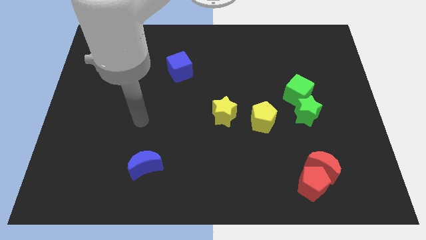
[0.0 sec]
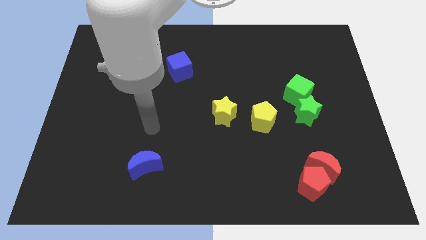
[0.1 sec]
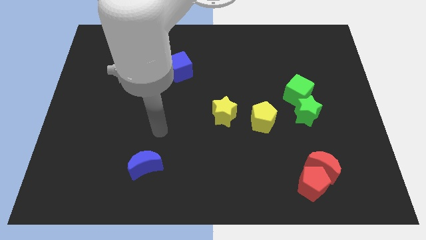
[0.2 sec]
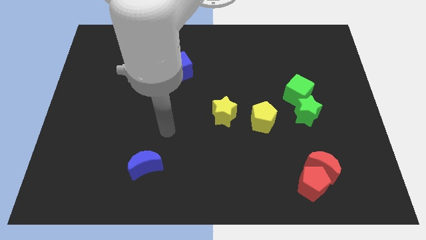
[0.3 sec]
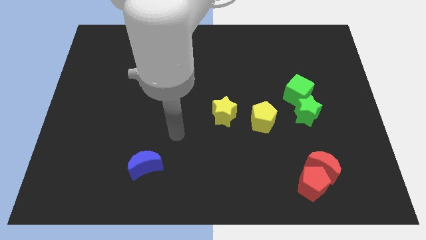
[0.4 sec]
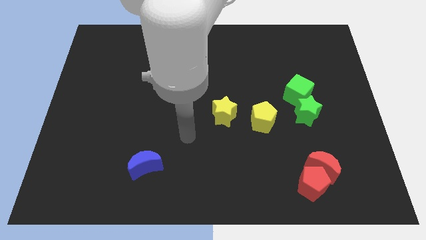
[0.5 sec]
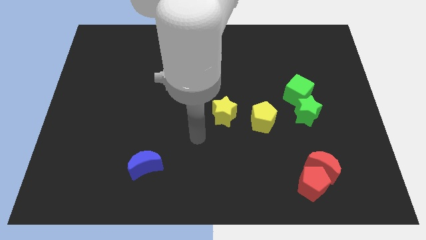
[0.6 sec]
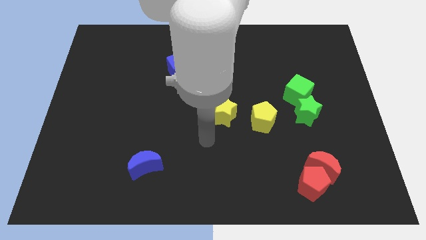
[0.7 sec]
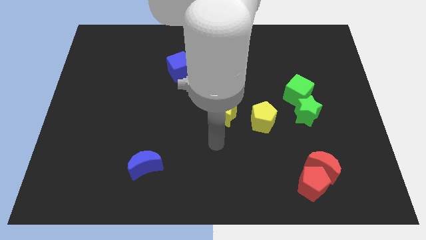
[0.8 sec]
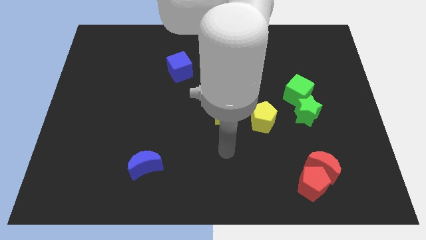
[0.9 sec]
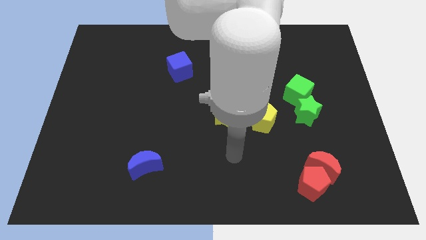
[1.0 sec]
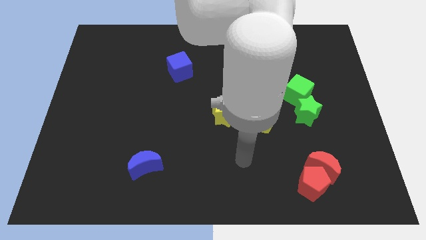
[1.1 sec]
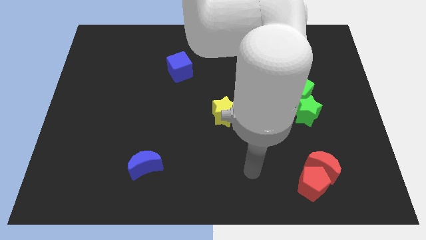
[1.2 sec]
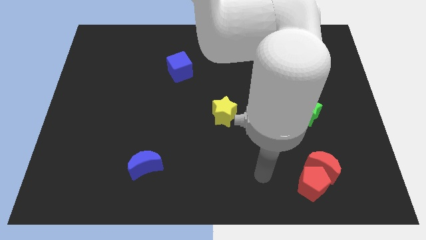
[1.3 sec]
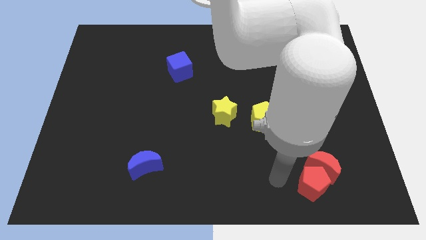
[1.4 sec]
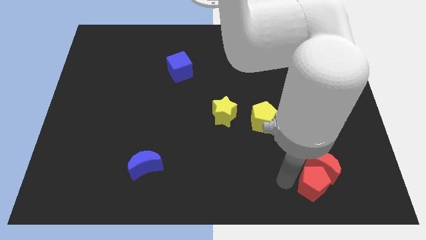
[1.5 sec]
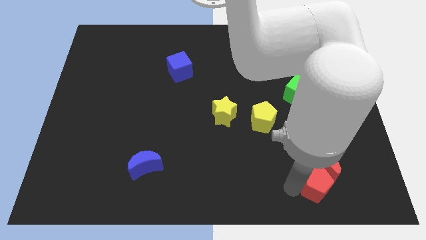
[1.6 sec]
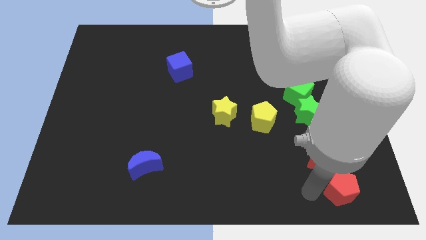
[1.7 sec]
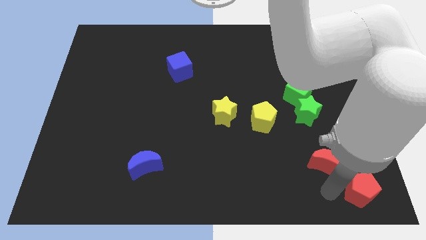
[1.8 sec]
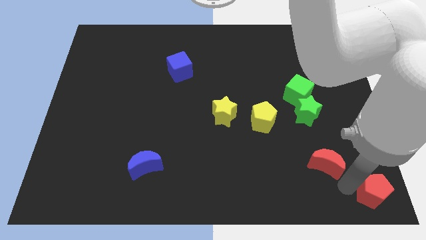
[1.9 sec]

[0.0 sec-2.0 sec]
pull the red moon apart from the red pentagon

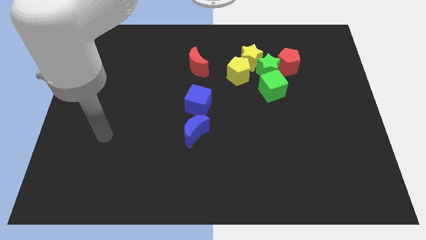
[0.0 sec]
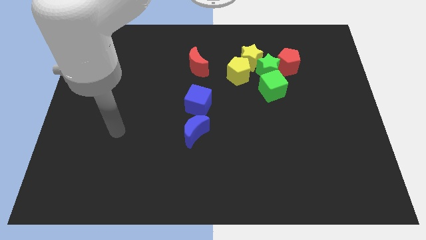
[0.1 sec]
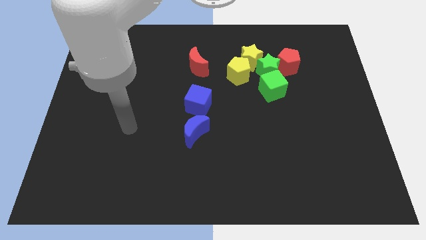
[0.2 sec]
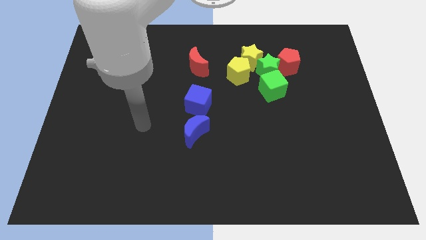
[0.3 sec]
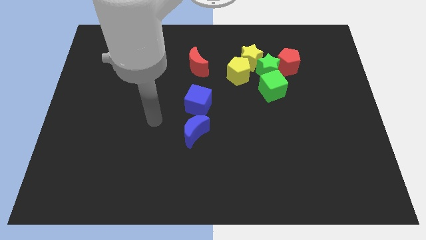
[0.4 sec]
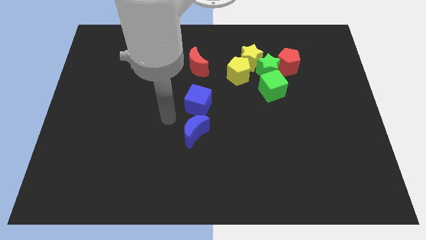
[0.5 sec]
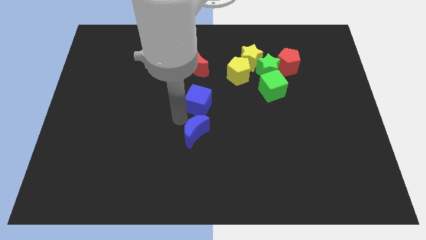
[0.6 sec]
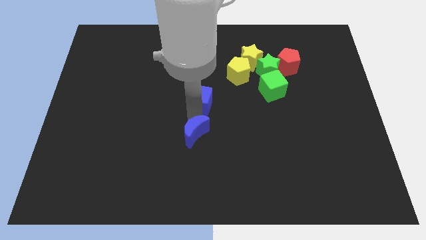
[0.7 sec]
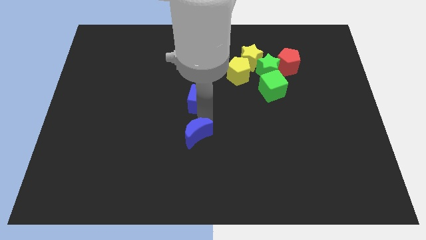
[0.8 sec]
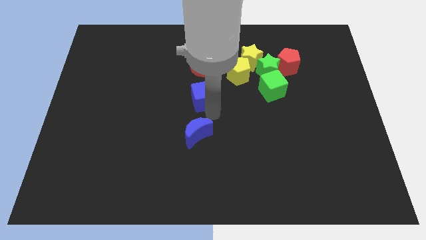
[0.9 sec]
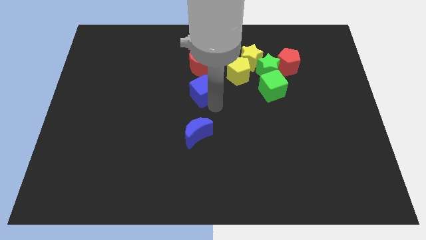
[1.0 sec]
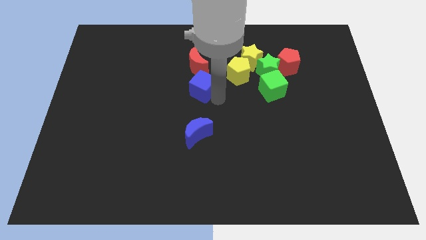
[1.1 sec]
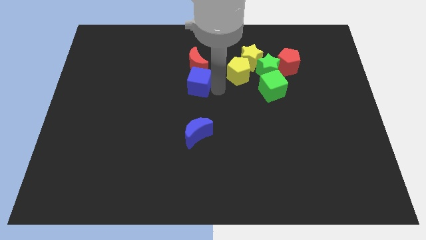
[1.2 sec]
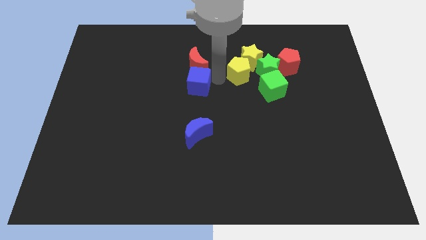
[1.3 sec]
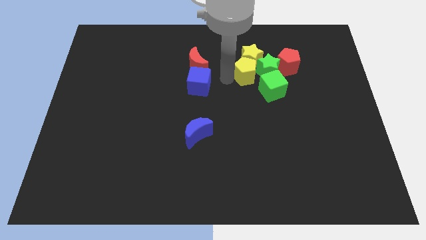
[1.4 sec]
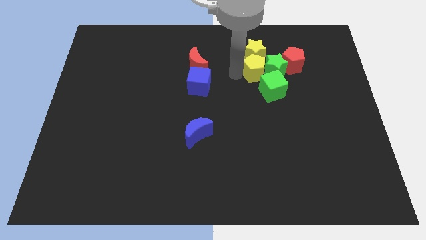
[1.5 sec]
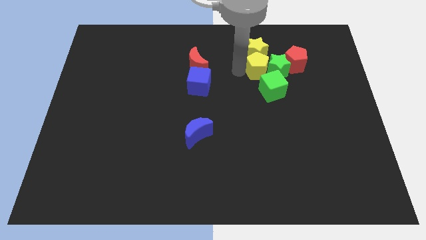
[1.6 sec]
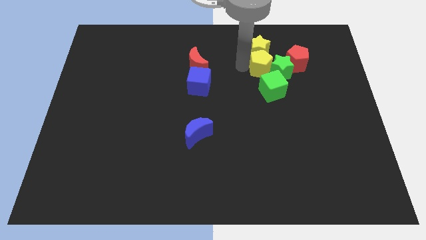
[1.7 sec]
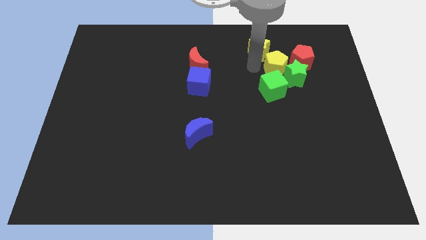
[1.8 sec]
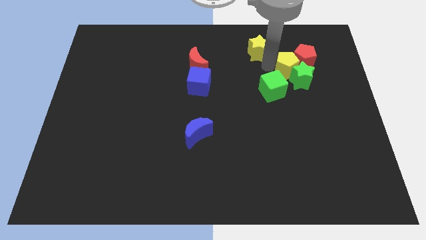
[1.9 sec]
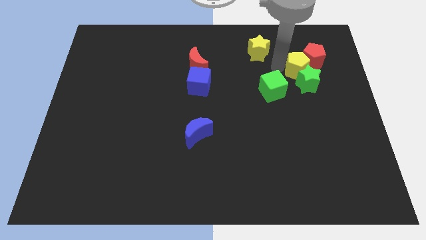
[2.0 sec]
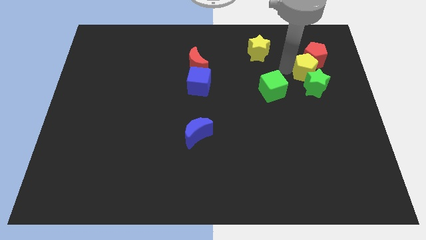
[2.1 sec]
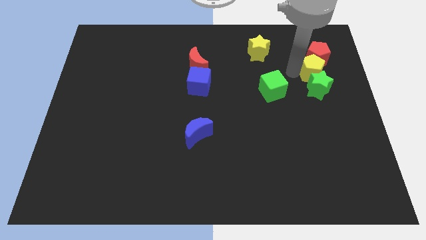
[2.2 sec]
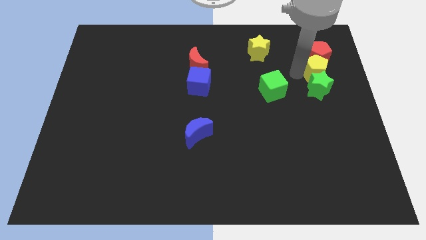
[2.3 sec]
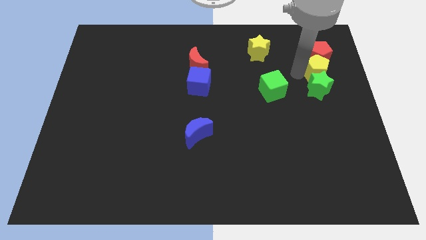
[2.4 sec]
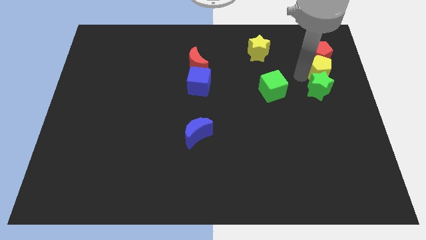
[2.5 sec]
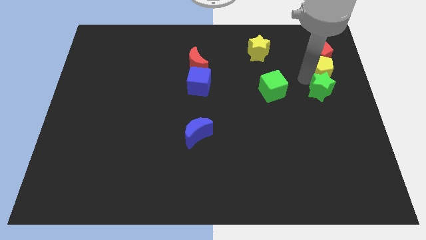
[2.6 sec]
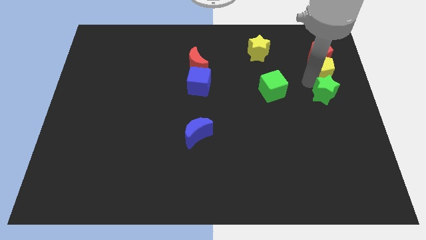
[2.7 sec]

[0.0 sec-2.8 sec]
separate the green star from the group

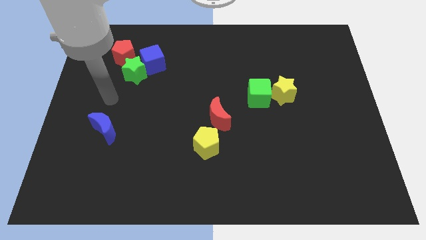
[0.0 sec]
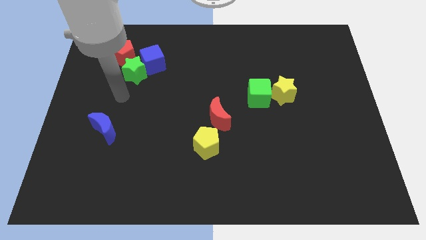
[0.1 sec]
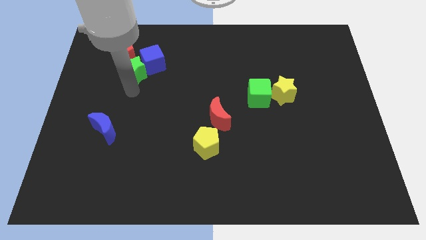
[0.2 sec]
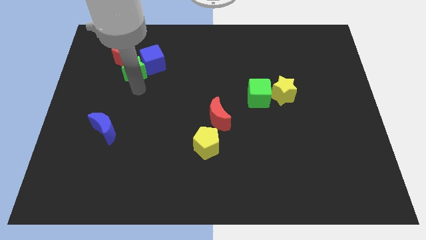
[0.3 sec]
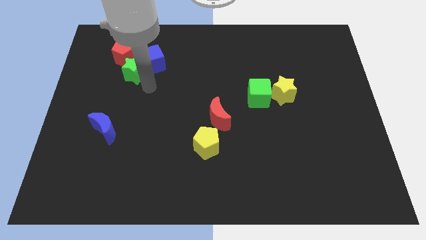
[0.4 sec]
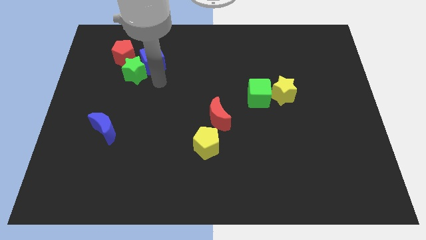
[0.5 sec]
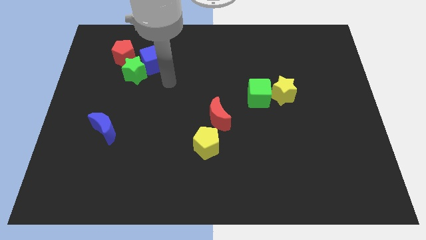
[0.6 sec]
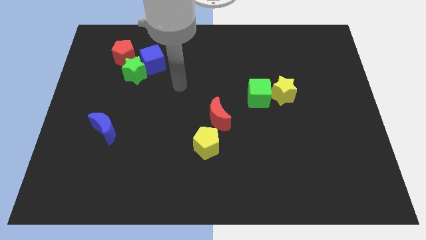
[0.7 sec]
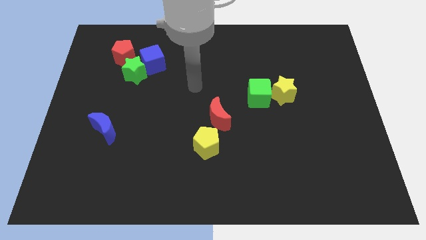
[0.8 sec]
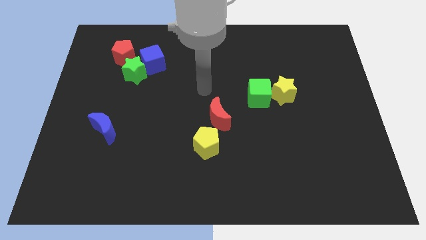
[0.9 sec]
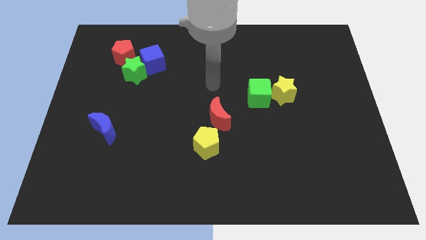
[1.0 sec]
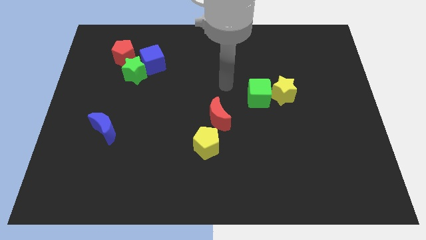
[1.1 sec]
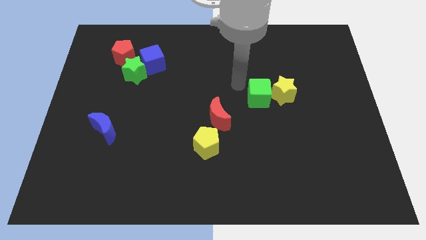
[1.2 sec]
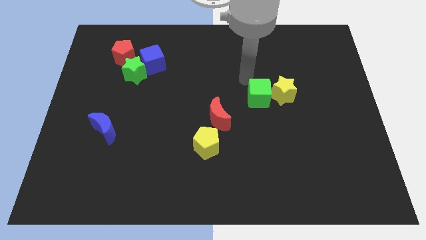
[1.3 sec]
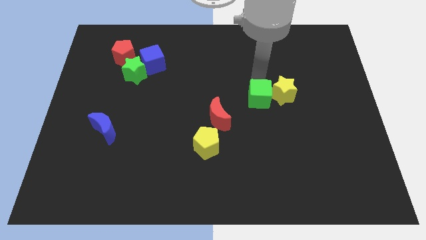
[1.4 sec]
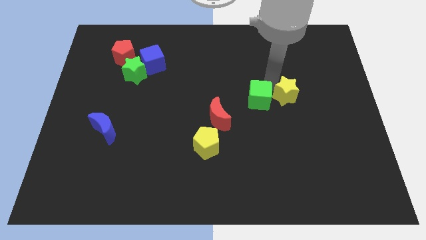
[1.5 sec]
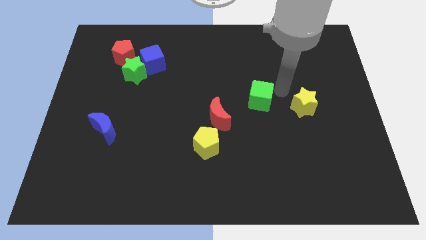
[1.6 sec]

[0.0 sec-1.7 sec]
move the green cube away from the yellow star

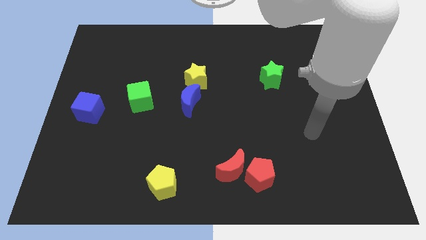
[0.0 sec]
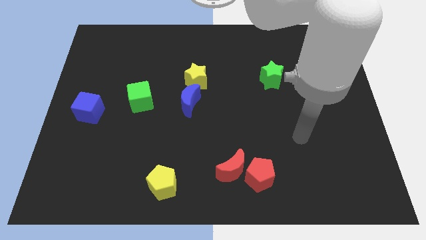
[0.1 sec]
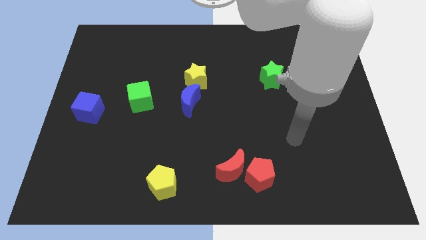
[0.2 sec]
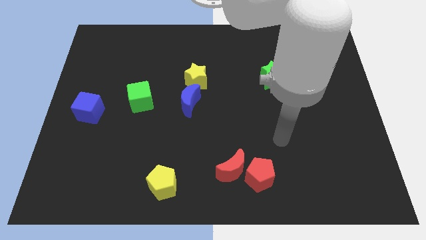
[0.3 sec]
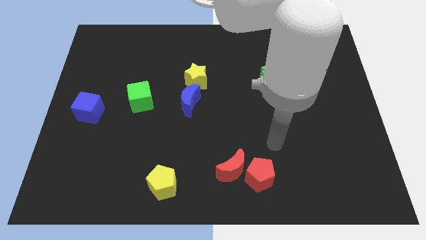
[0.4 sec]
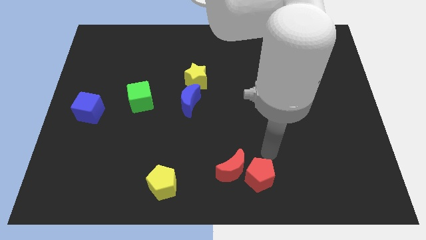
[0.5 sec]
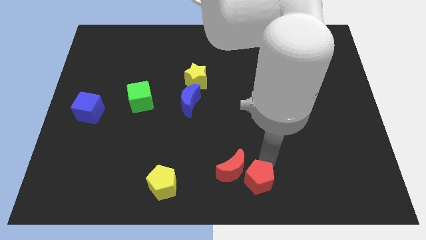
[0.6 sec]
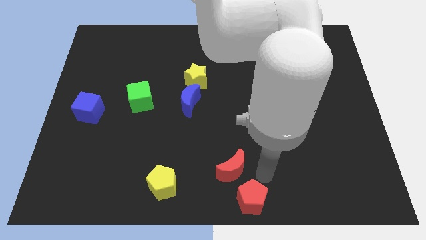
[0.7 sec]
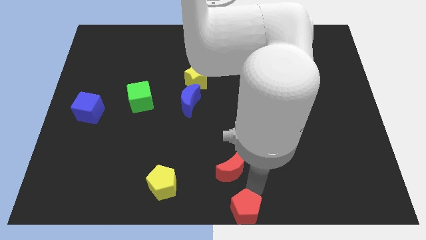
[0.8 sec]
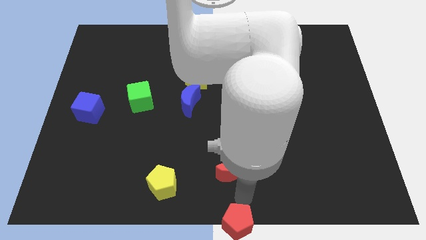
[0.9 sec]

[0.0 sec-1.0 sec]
separate the red moon from the red pentagon

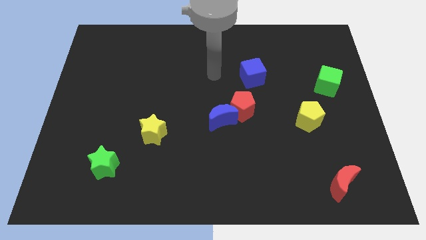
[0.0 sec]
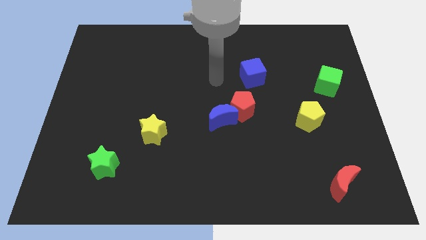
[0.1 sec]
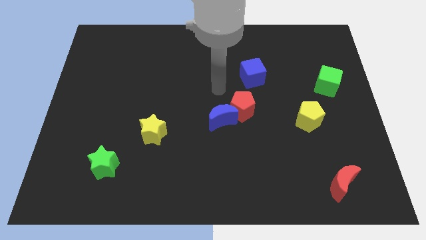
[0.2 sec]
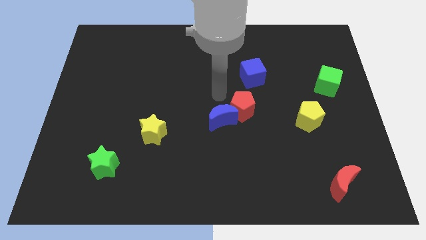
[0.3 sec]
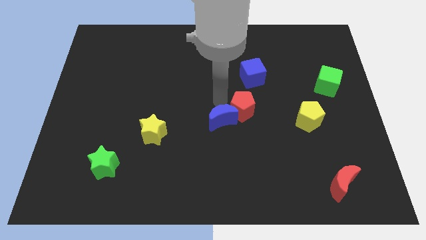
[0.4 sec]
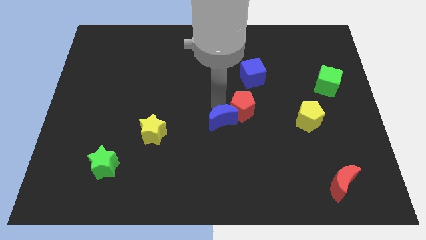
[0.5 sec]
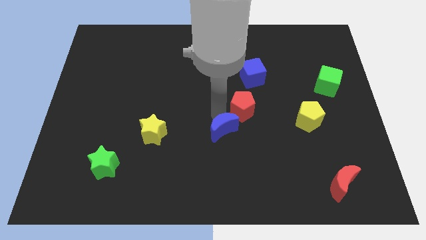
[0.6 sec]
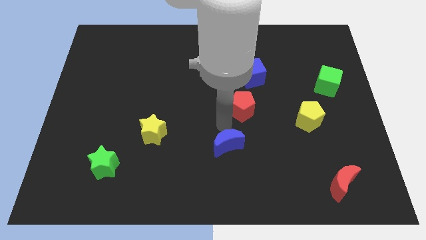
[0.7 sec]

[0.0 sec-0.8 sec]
move the red pentagon away from the blue moon

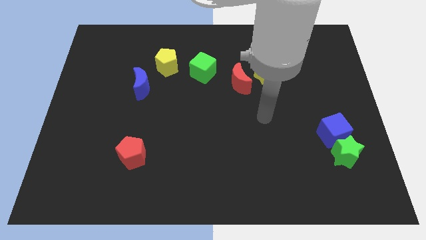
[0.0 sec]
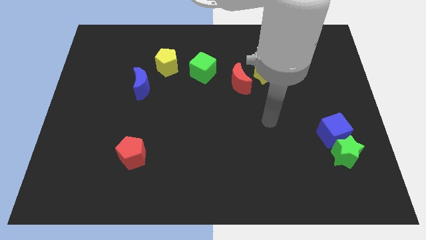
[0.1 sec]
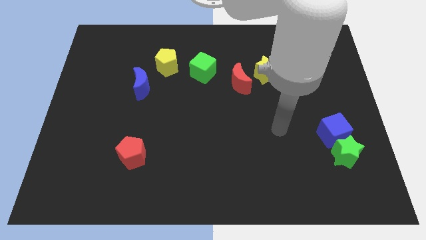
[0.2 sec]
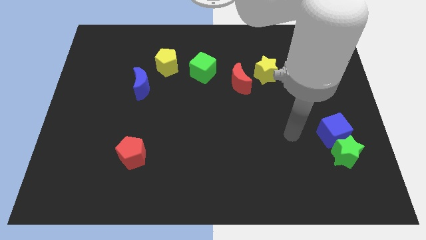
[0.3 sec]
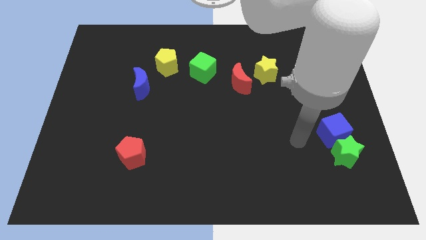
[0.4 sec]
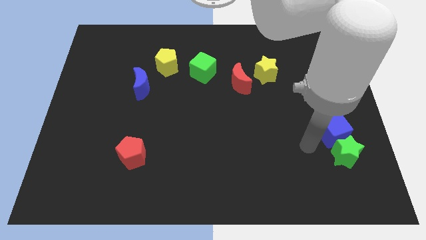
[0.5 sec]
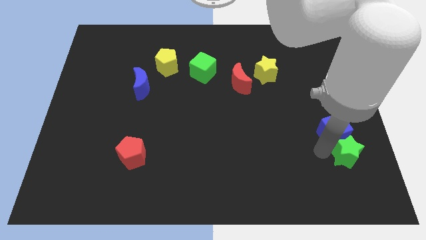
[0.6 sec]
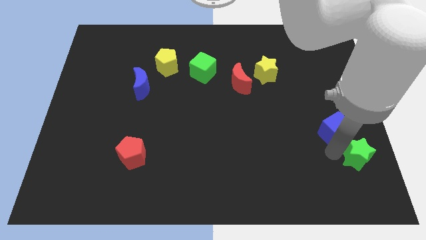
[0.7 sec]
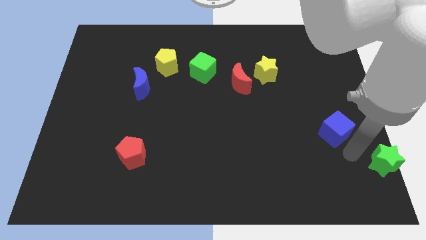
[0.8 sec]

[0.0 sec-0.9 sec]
pull the blue cube apart from the green star
